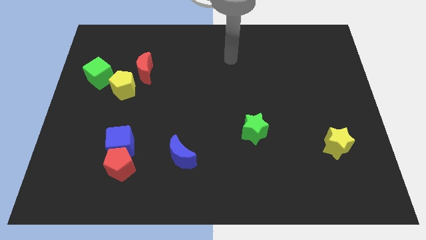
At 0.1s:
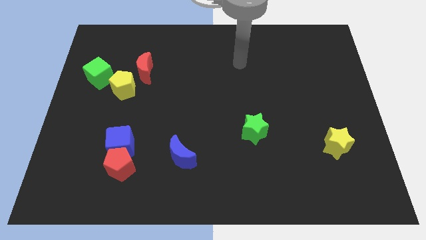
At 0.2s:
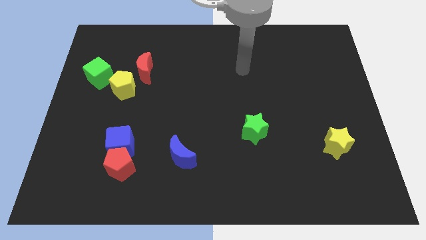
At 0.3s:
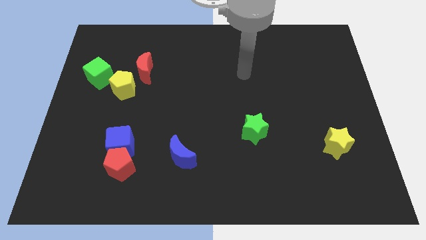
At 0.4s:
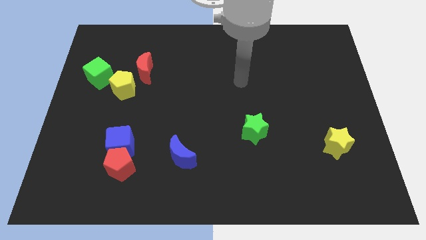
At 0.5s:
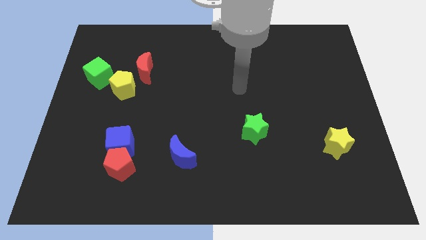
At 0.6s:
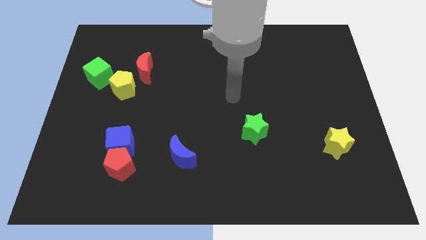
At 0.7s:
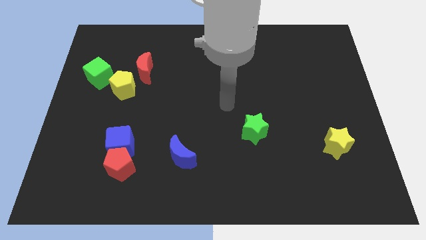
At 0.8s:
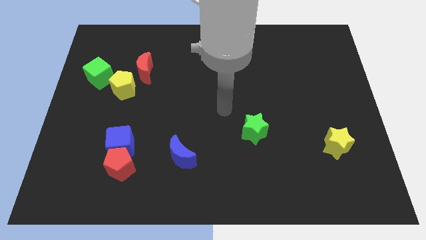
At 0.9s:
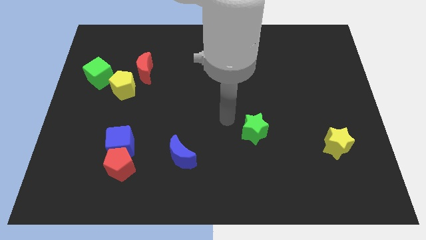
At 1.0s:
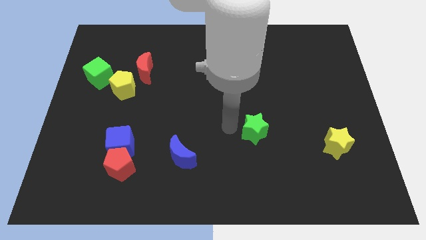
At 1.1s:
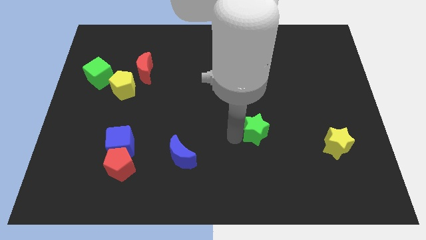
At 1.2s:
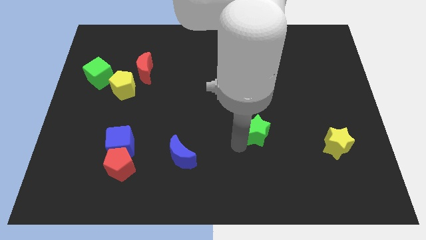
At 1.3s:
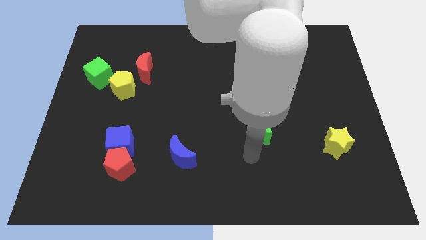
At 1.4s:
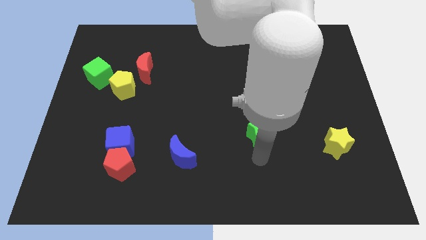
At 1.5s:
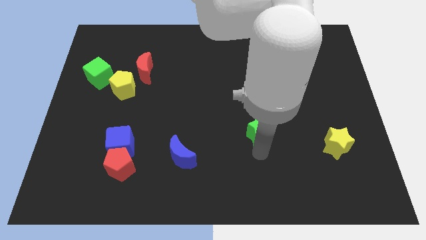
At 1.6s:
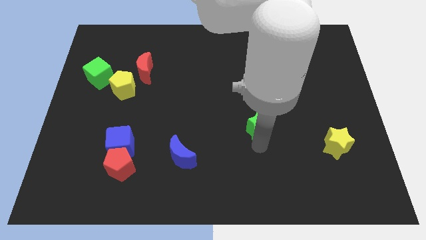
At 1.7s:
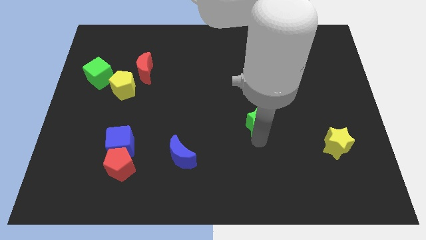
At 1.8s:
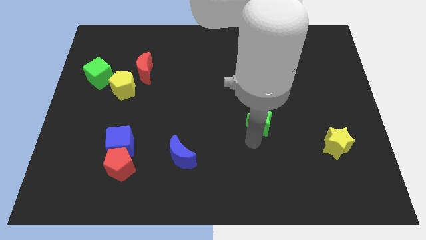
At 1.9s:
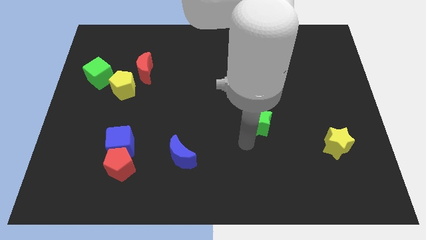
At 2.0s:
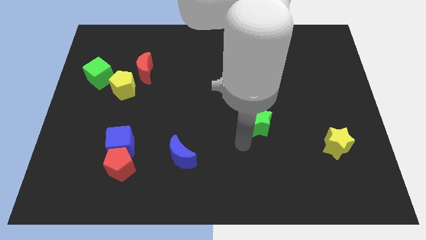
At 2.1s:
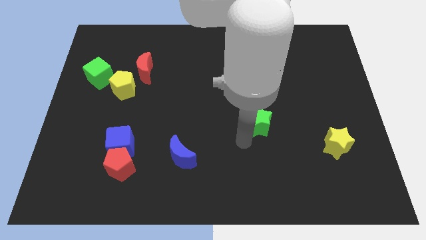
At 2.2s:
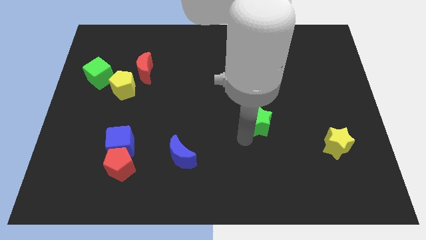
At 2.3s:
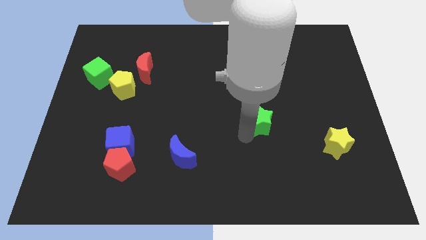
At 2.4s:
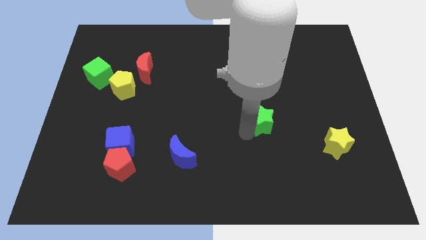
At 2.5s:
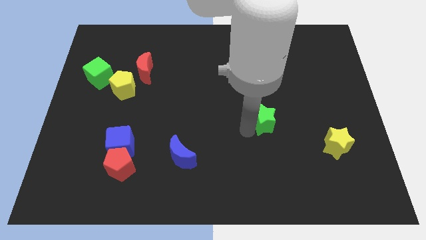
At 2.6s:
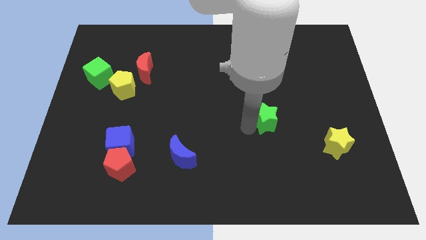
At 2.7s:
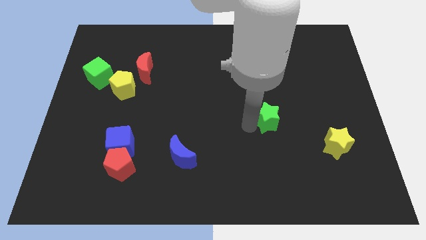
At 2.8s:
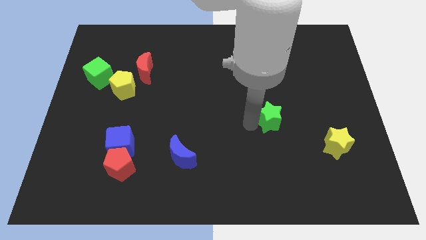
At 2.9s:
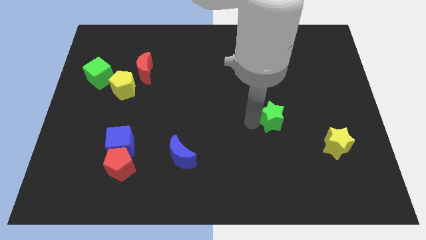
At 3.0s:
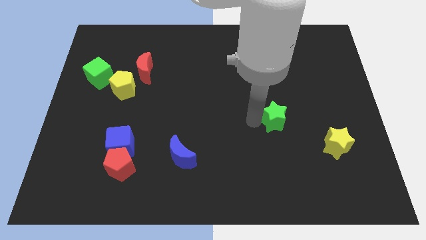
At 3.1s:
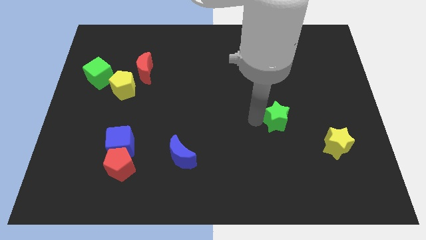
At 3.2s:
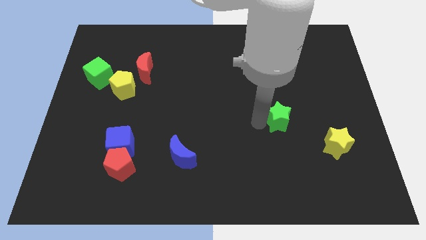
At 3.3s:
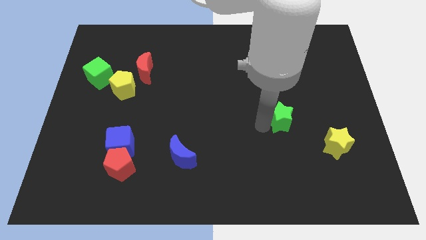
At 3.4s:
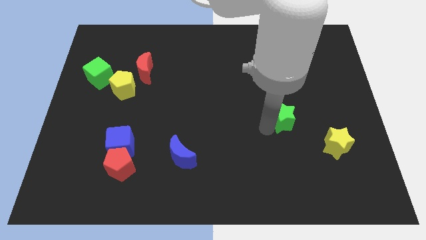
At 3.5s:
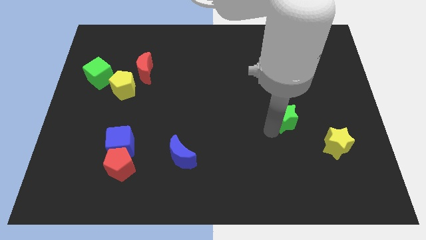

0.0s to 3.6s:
slightly move the green star upwards and to the right diagonally

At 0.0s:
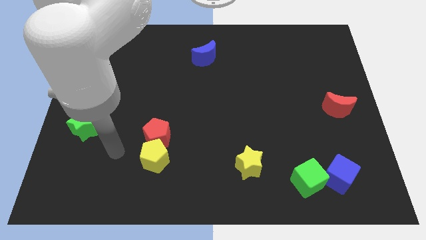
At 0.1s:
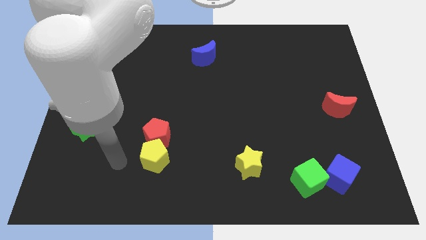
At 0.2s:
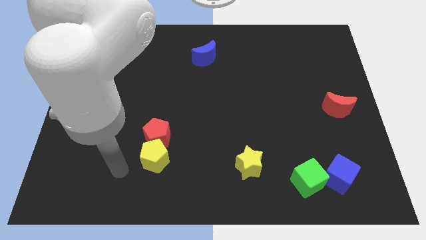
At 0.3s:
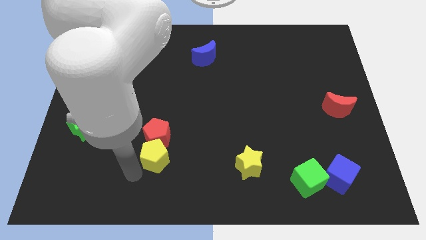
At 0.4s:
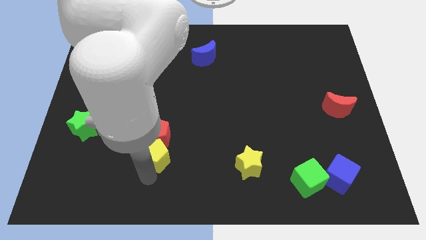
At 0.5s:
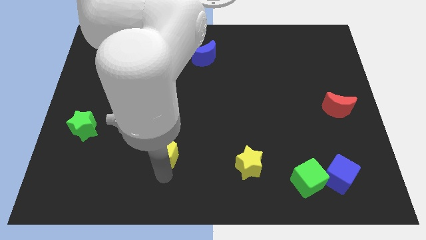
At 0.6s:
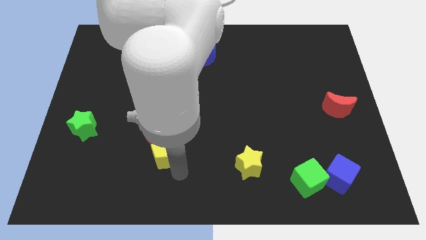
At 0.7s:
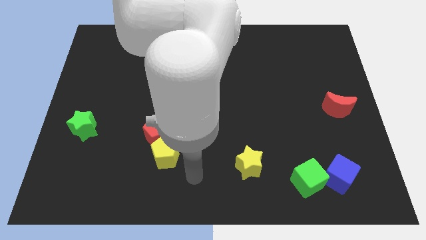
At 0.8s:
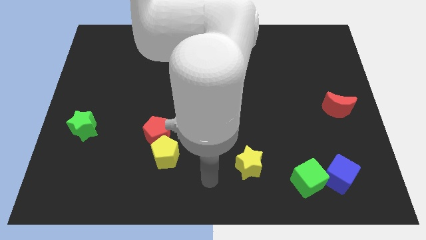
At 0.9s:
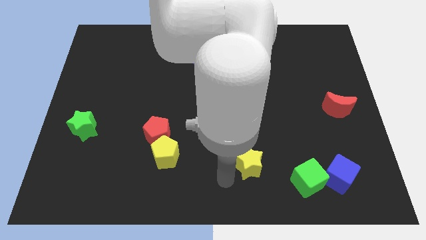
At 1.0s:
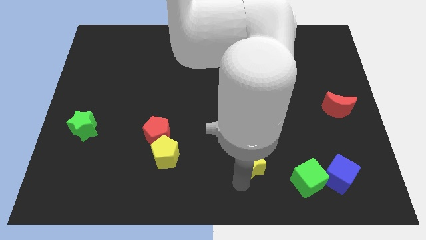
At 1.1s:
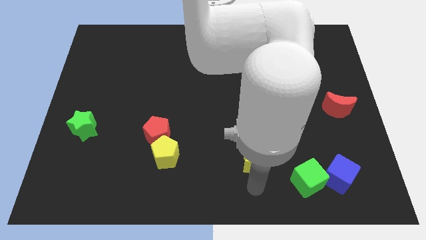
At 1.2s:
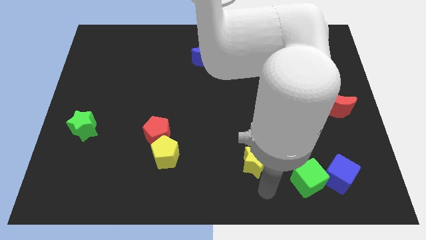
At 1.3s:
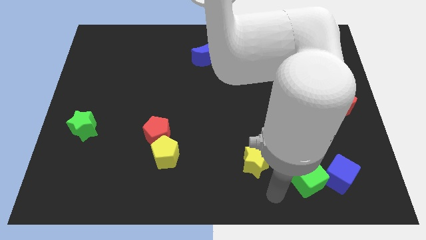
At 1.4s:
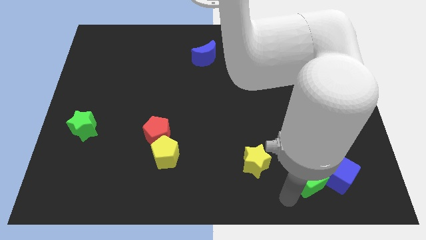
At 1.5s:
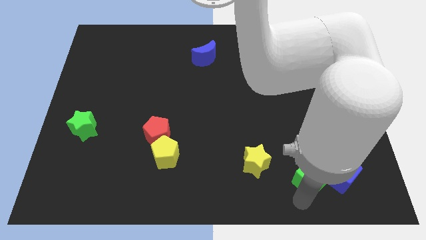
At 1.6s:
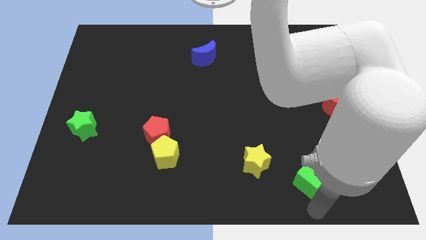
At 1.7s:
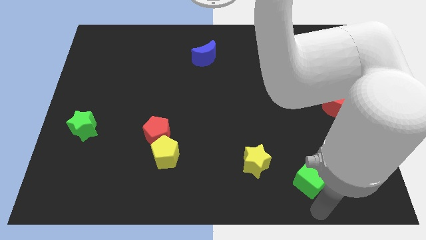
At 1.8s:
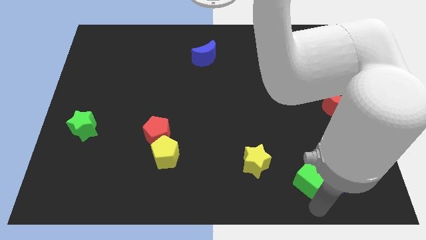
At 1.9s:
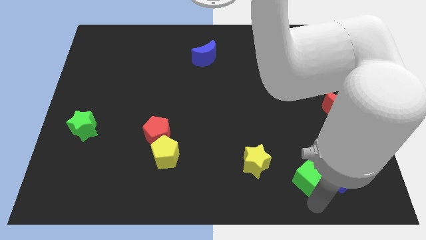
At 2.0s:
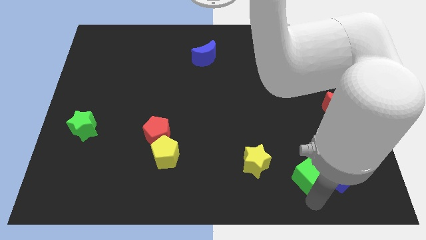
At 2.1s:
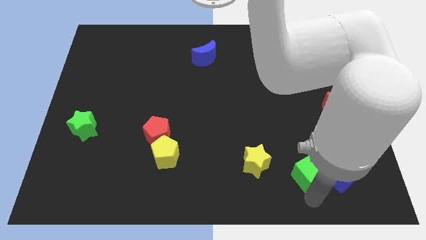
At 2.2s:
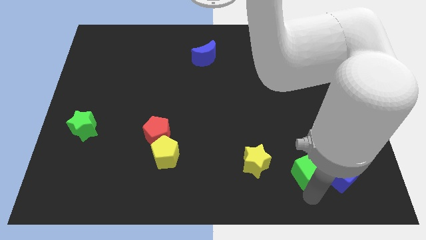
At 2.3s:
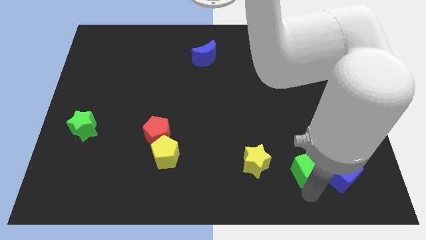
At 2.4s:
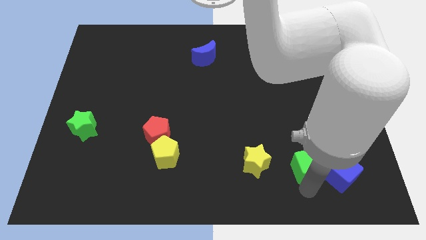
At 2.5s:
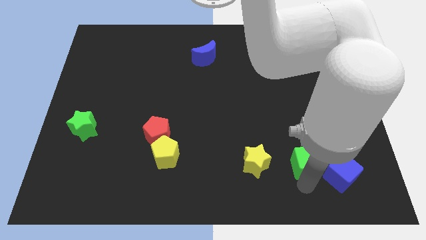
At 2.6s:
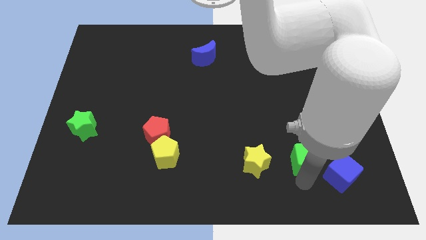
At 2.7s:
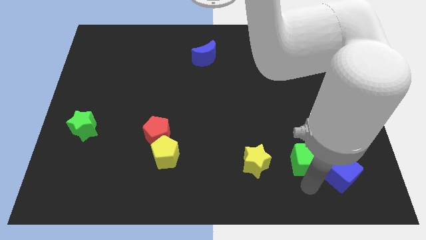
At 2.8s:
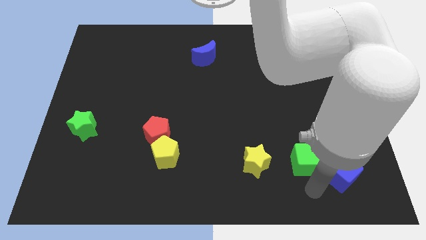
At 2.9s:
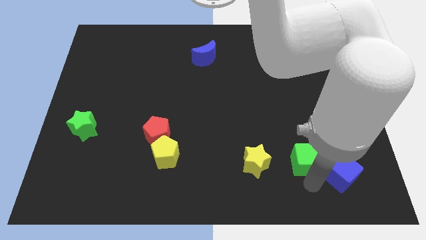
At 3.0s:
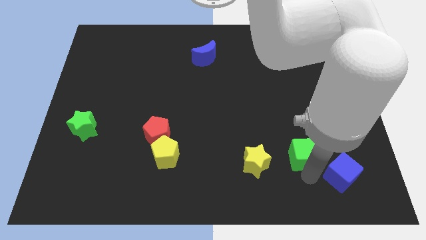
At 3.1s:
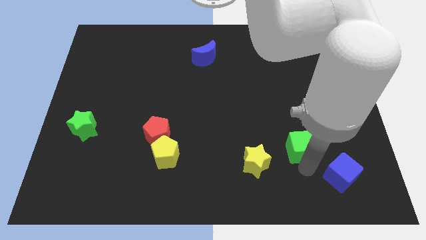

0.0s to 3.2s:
slightly slide the green cube up

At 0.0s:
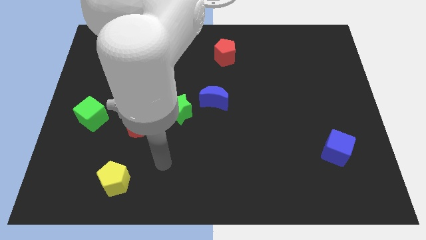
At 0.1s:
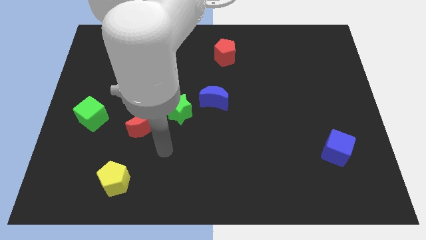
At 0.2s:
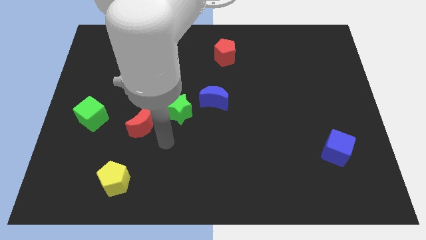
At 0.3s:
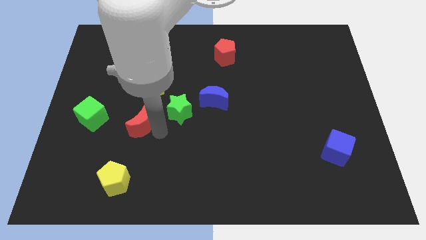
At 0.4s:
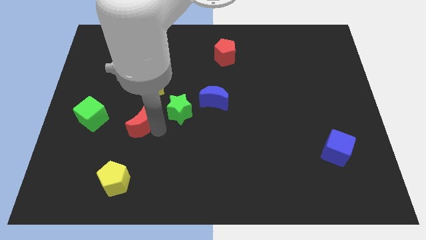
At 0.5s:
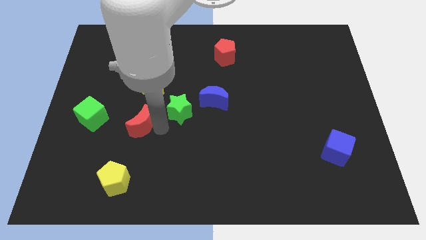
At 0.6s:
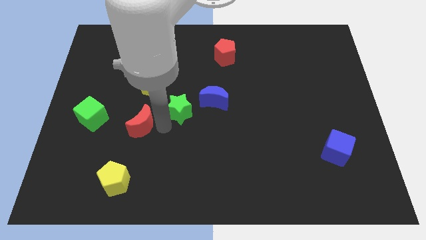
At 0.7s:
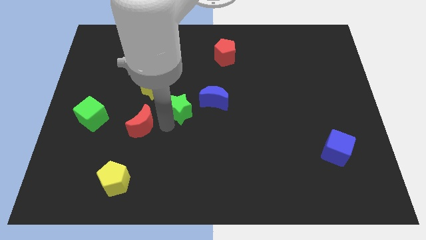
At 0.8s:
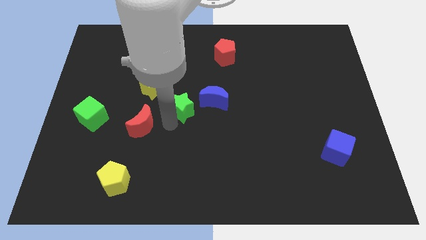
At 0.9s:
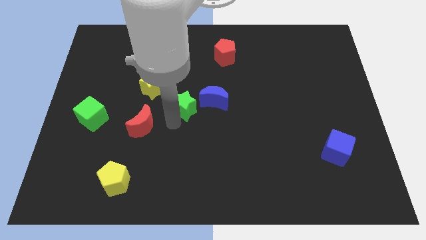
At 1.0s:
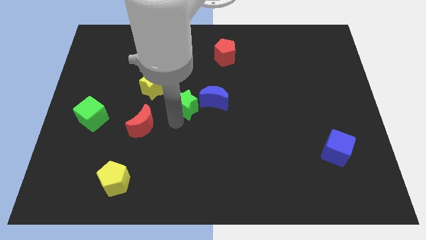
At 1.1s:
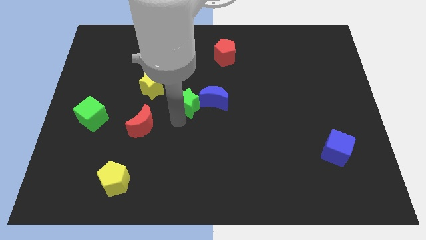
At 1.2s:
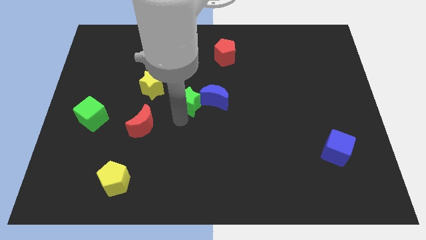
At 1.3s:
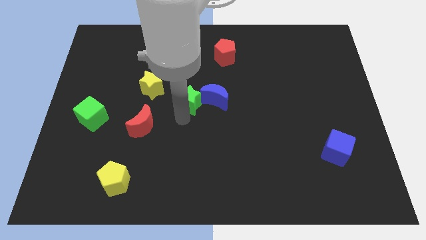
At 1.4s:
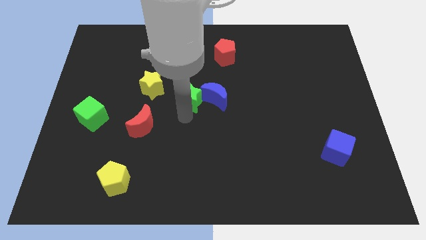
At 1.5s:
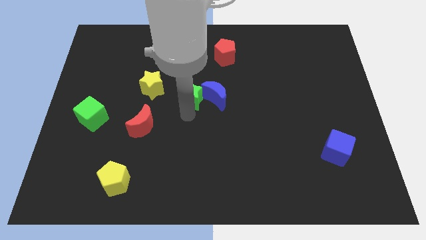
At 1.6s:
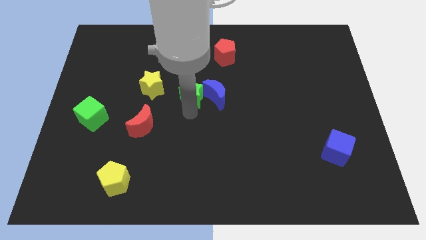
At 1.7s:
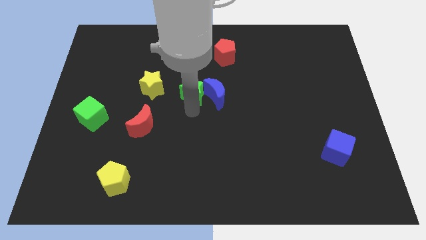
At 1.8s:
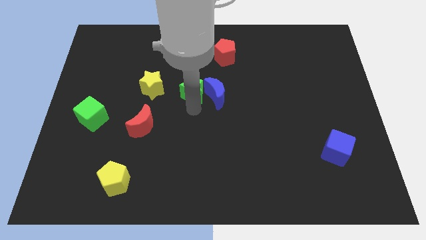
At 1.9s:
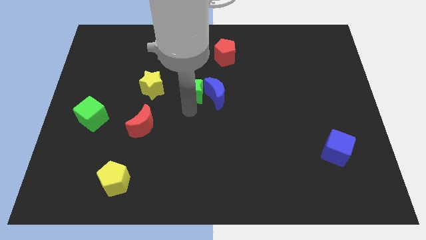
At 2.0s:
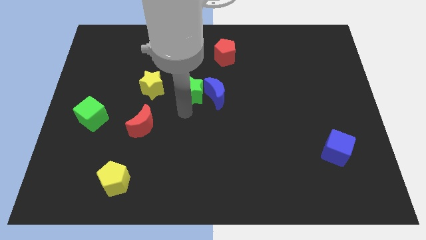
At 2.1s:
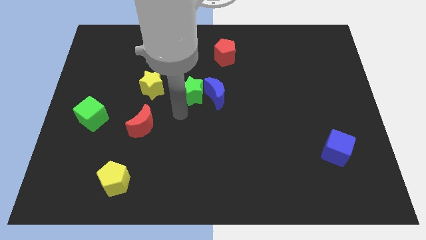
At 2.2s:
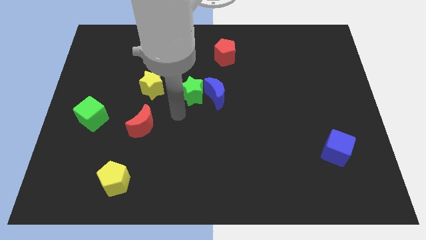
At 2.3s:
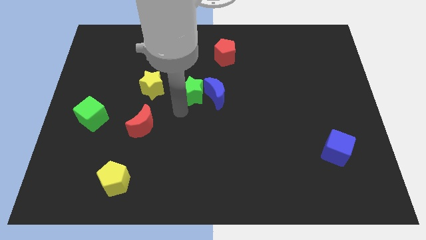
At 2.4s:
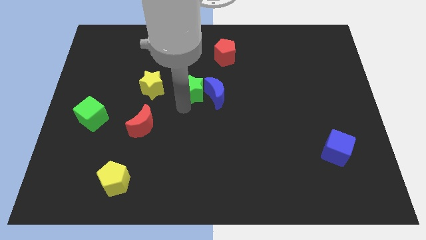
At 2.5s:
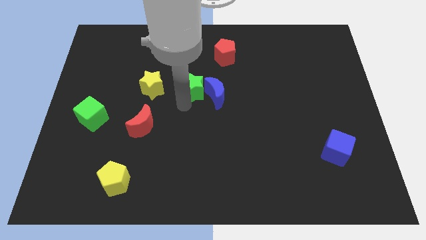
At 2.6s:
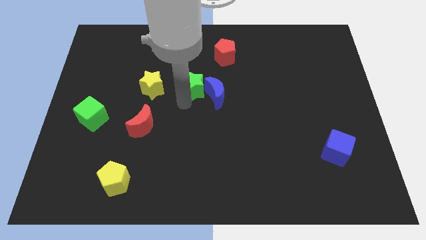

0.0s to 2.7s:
move the green star a little diagonally upwards and to the right
